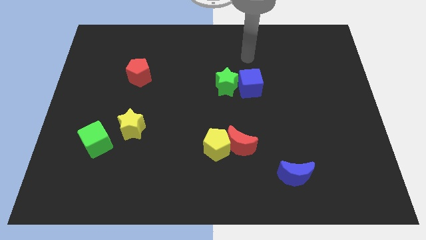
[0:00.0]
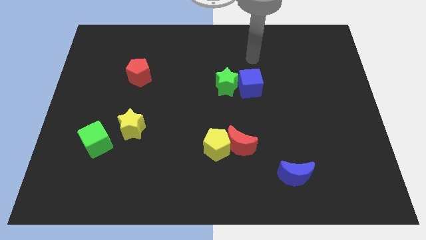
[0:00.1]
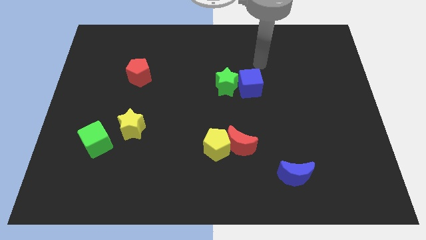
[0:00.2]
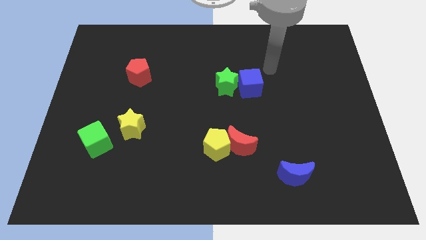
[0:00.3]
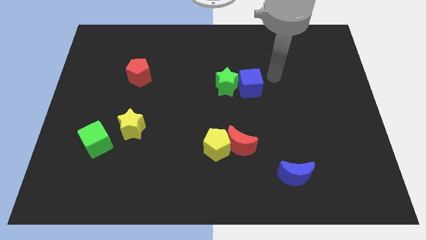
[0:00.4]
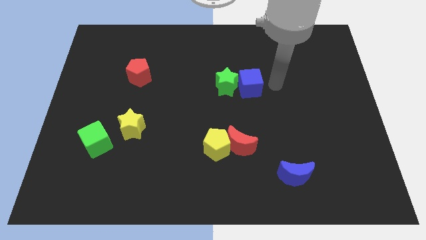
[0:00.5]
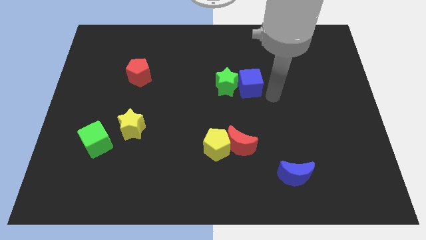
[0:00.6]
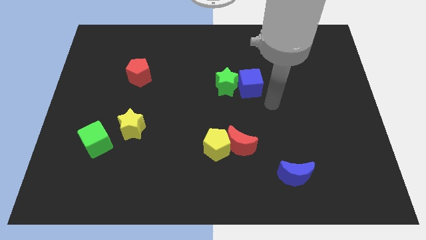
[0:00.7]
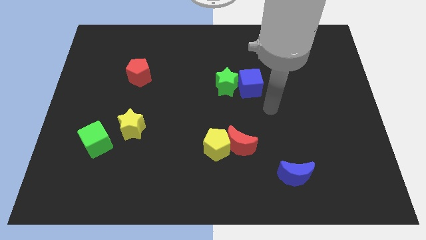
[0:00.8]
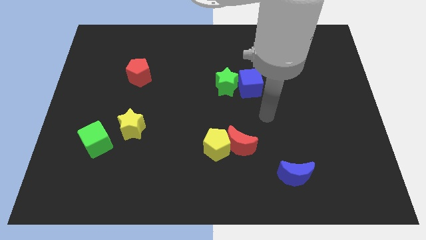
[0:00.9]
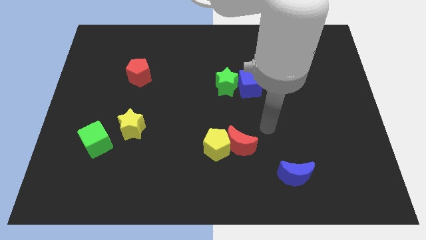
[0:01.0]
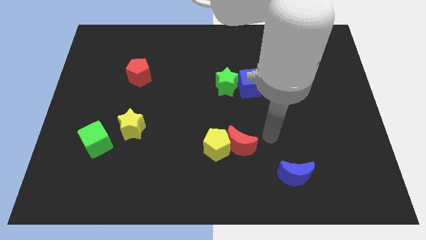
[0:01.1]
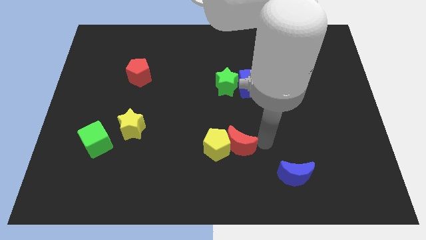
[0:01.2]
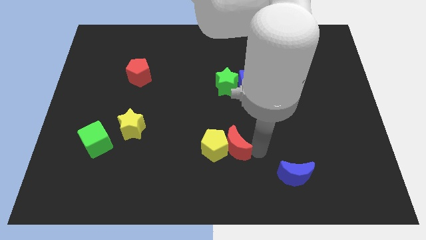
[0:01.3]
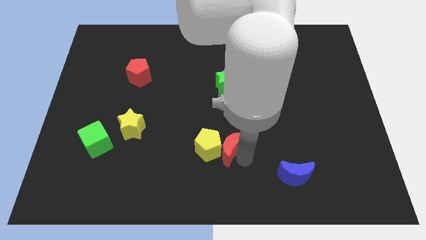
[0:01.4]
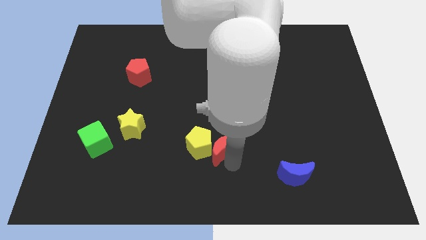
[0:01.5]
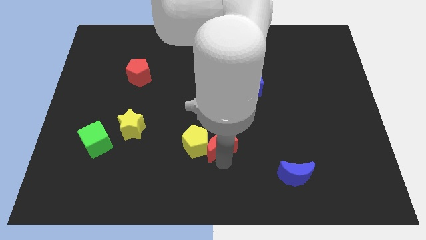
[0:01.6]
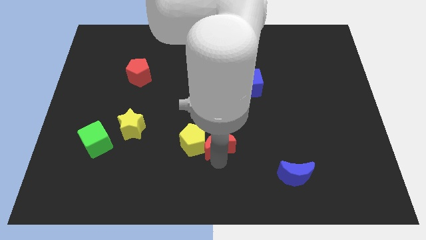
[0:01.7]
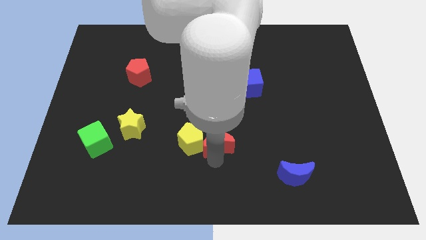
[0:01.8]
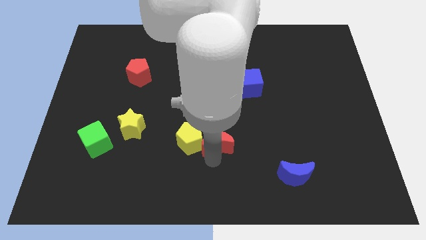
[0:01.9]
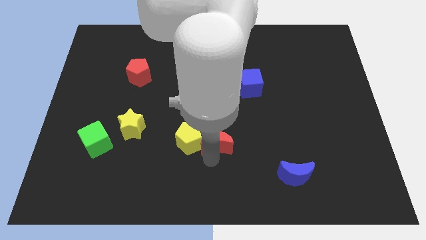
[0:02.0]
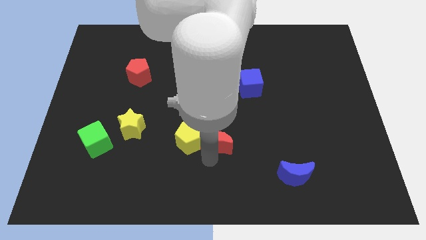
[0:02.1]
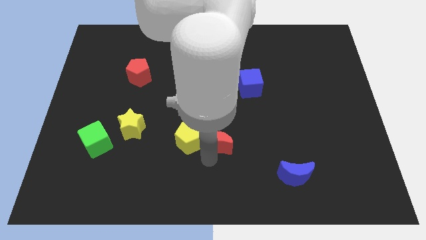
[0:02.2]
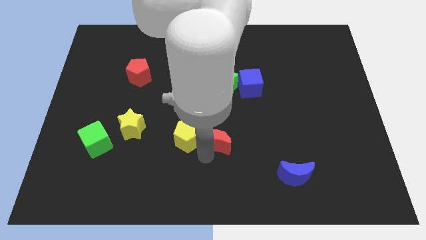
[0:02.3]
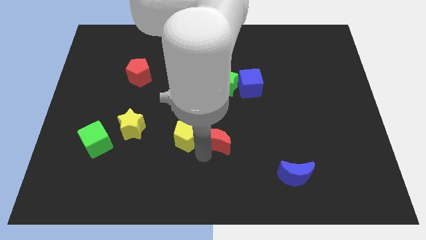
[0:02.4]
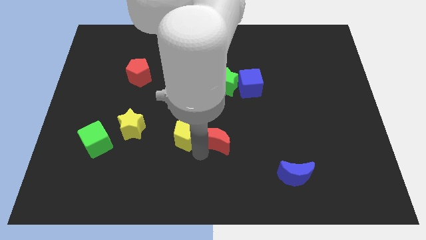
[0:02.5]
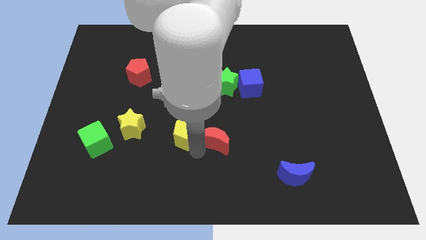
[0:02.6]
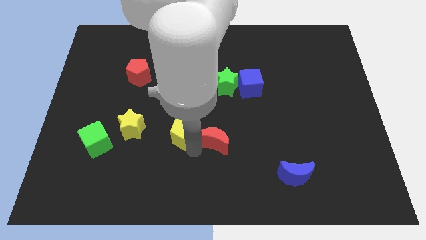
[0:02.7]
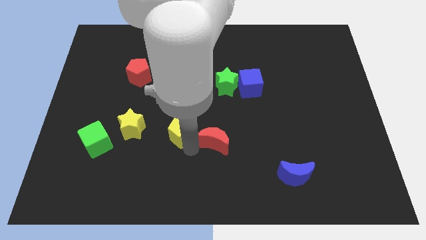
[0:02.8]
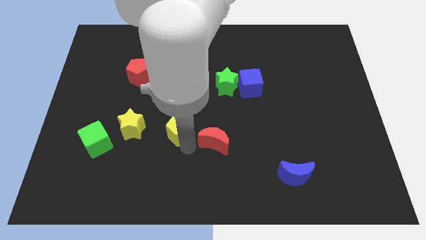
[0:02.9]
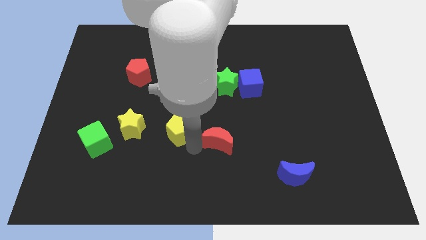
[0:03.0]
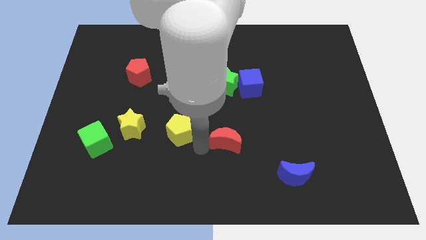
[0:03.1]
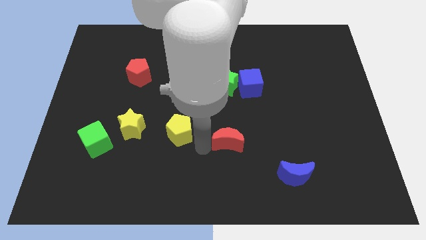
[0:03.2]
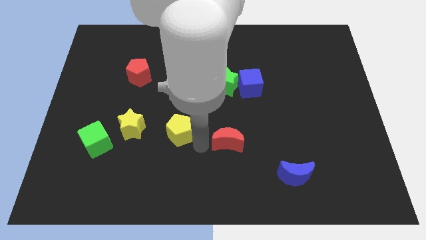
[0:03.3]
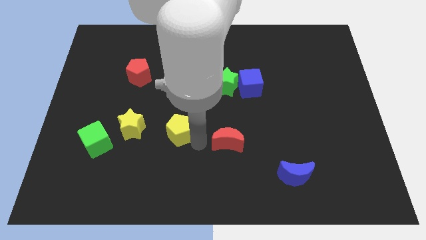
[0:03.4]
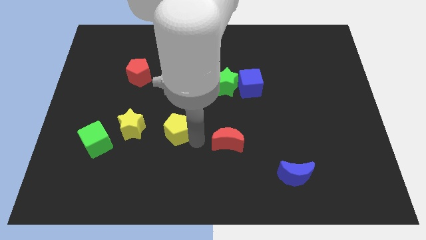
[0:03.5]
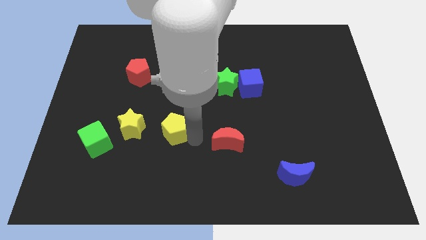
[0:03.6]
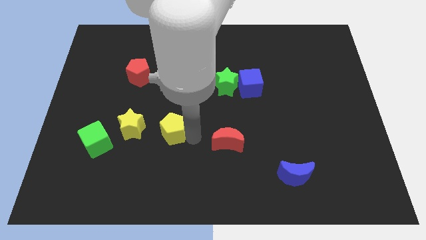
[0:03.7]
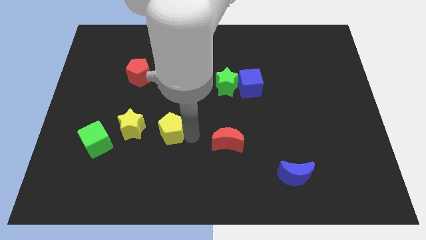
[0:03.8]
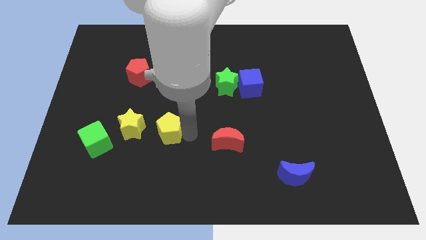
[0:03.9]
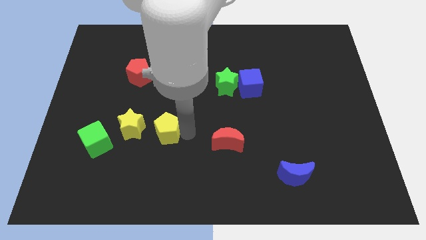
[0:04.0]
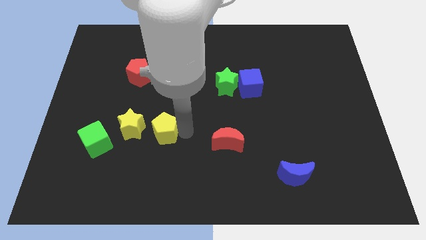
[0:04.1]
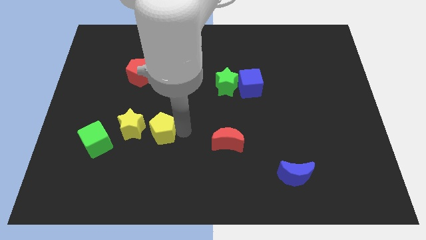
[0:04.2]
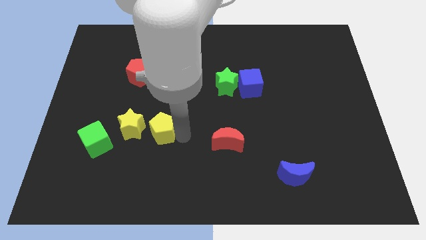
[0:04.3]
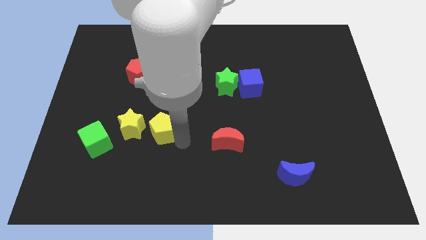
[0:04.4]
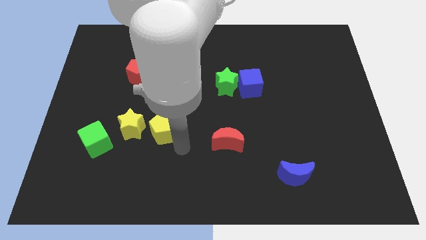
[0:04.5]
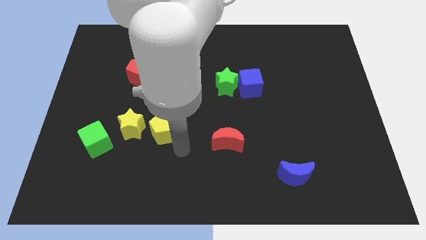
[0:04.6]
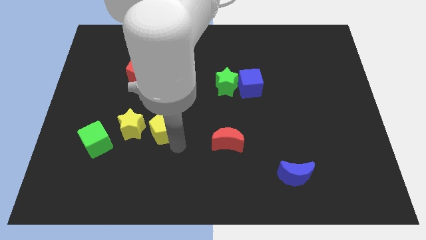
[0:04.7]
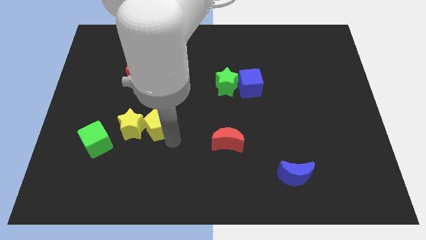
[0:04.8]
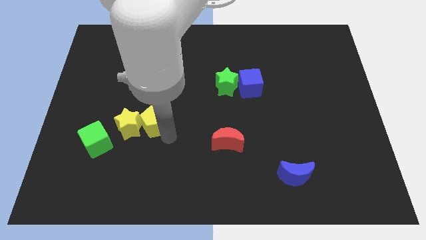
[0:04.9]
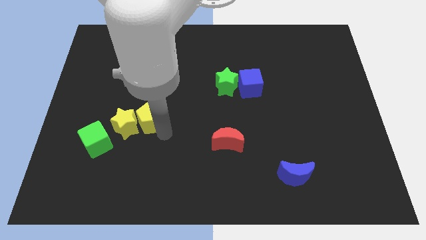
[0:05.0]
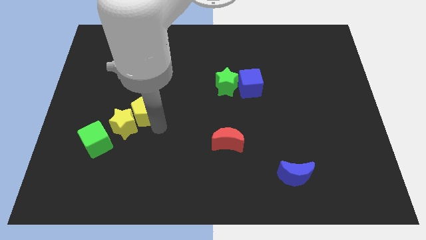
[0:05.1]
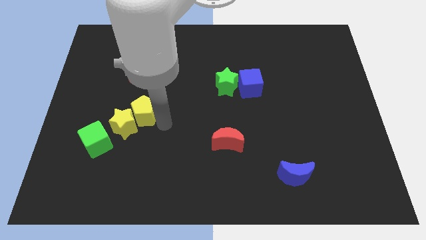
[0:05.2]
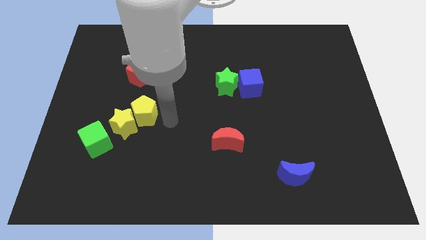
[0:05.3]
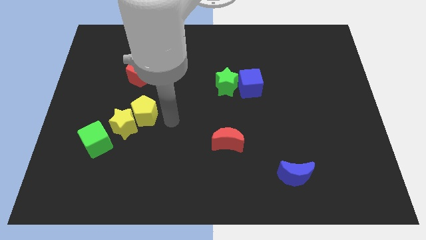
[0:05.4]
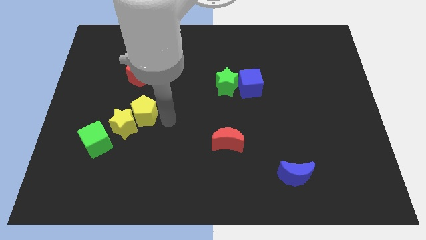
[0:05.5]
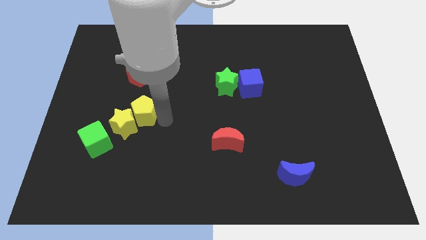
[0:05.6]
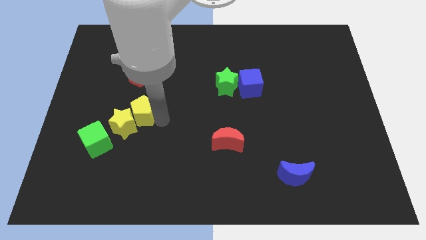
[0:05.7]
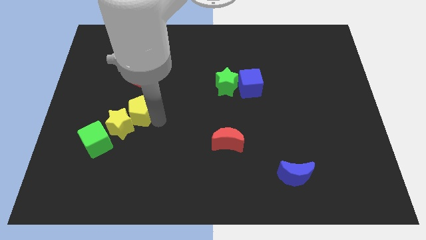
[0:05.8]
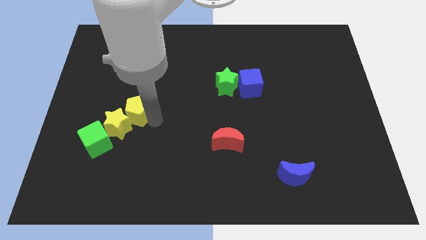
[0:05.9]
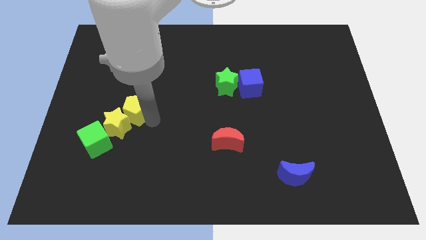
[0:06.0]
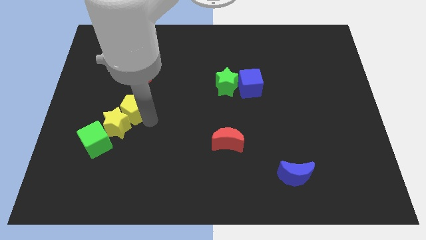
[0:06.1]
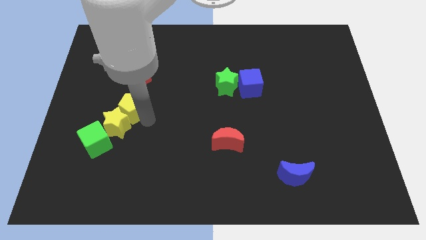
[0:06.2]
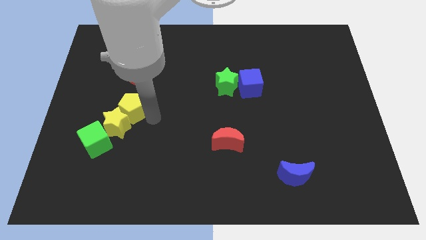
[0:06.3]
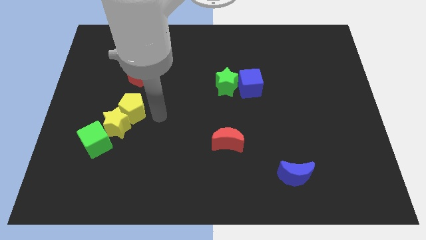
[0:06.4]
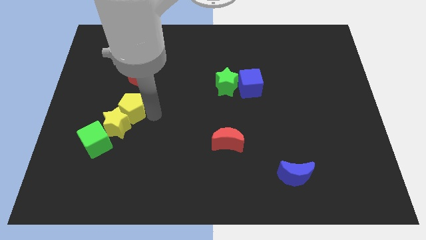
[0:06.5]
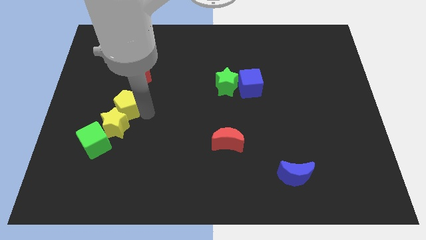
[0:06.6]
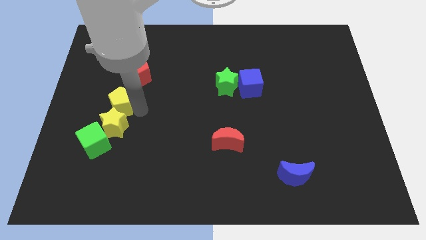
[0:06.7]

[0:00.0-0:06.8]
put the yellow pentagon to the top of the green cube

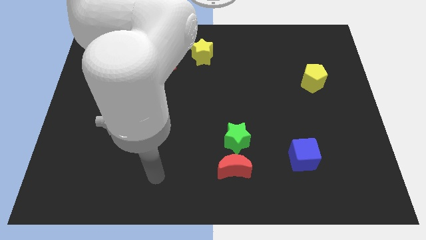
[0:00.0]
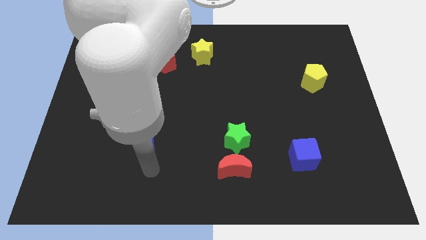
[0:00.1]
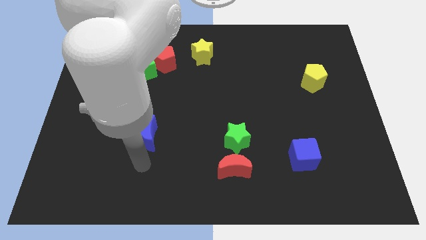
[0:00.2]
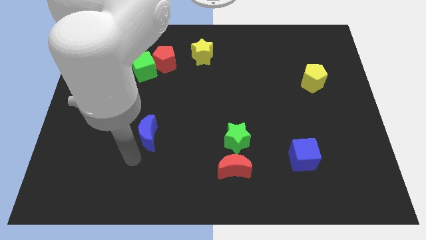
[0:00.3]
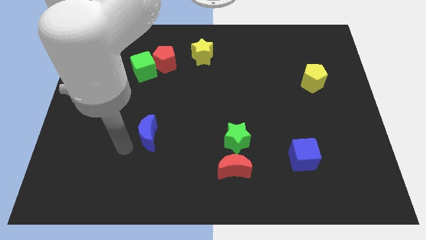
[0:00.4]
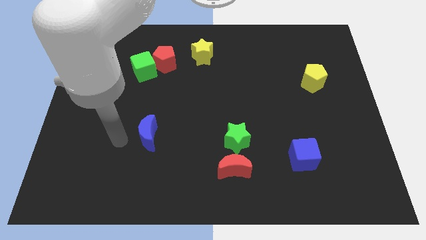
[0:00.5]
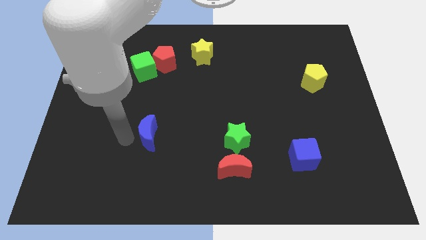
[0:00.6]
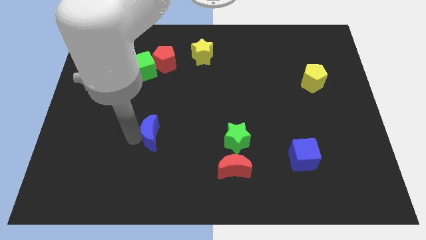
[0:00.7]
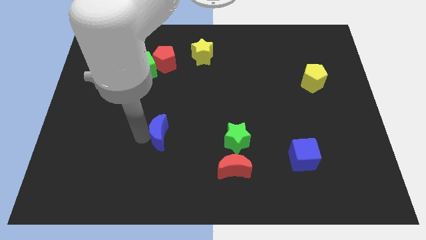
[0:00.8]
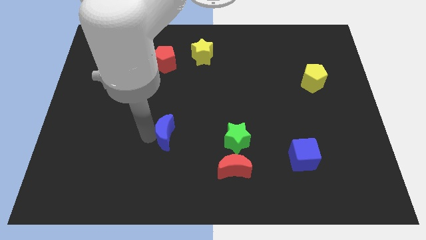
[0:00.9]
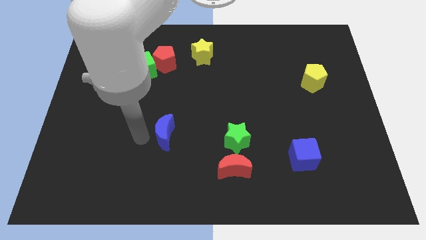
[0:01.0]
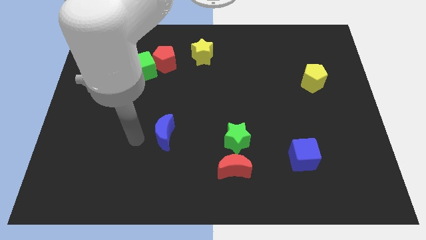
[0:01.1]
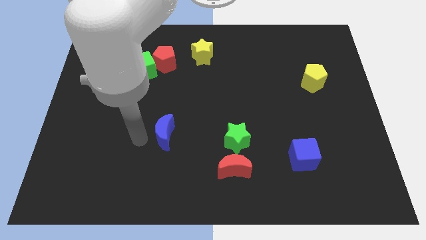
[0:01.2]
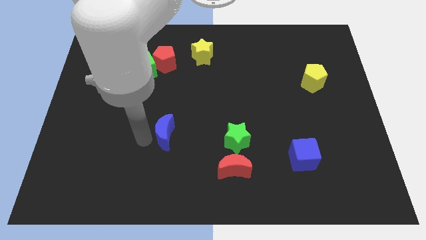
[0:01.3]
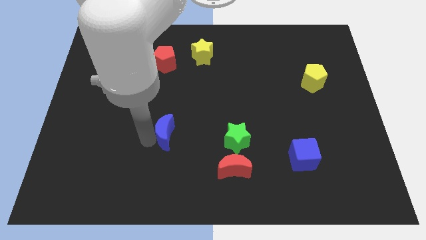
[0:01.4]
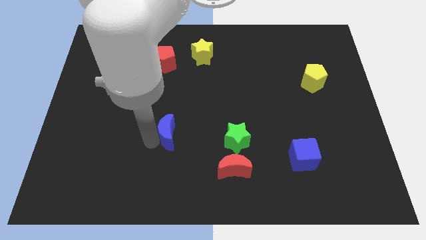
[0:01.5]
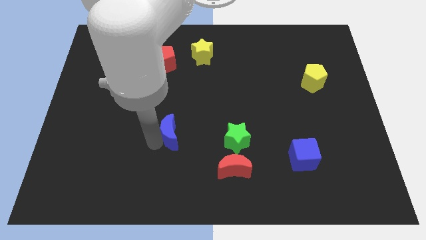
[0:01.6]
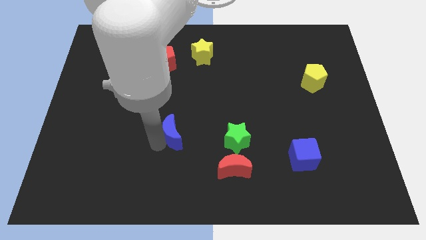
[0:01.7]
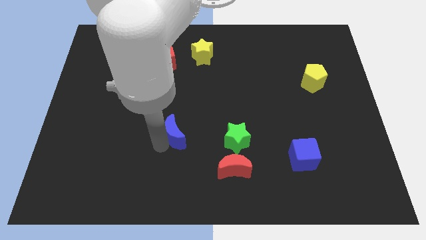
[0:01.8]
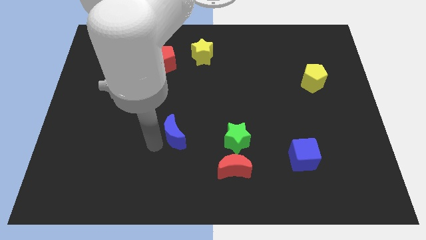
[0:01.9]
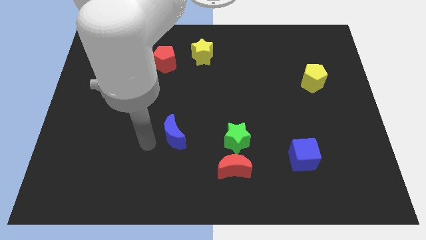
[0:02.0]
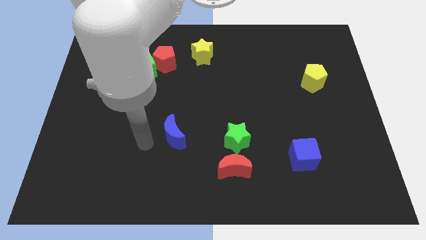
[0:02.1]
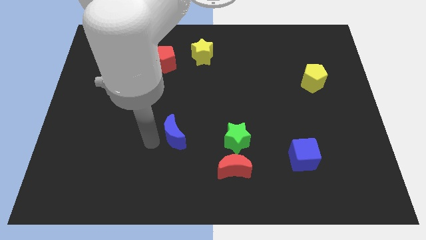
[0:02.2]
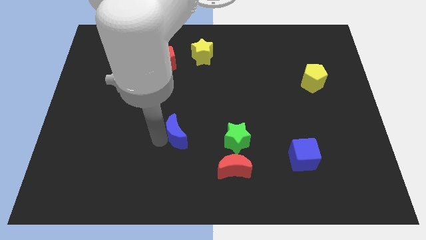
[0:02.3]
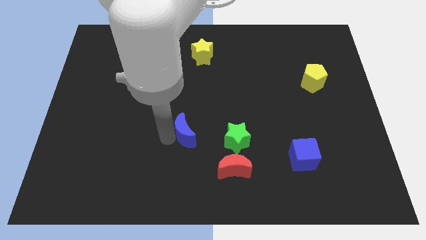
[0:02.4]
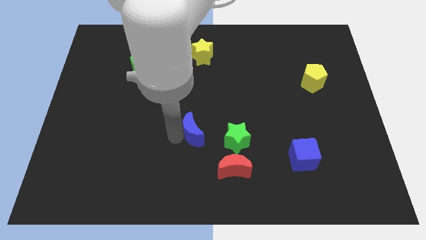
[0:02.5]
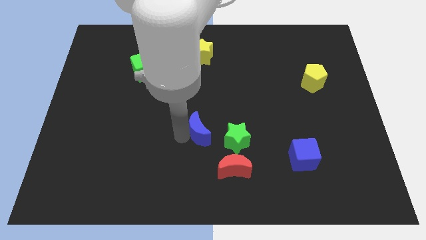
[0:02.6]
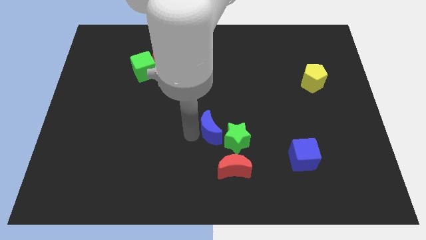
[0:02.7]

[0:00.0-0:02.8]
push the blue moon to the top side of the red moon
